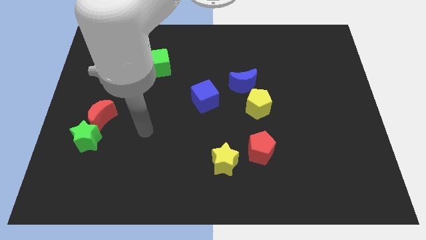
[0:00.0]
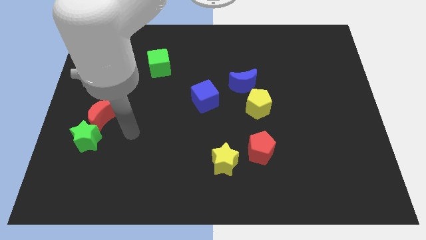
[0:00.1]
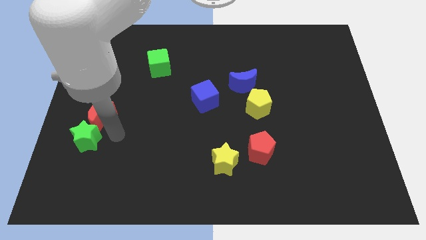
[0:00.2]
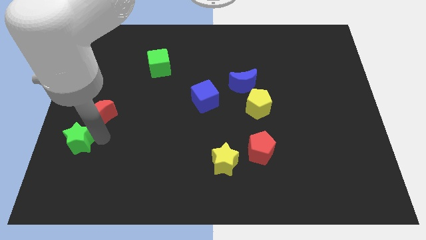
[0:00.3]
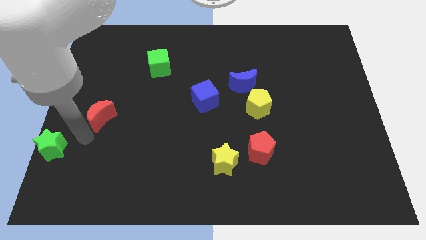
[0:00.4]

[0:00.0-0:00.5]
pull the red moon apart from the green star

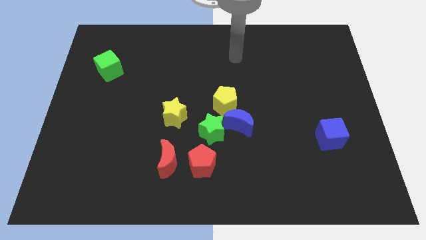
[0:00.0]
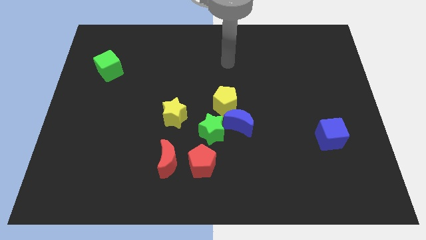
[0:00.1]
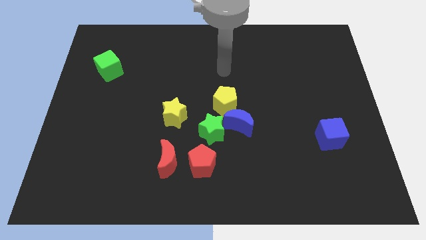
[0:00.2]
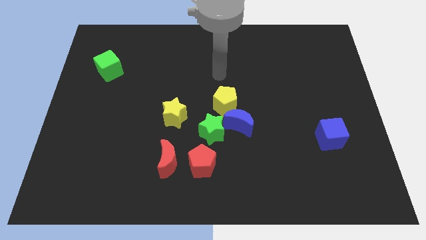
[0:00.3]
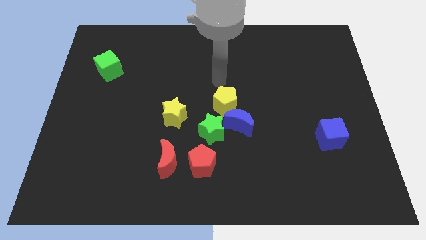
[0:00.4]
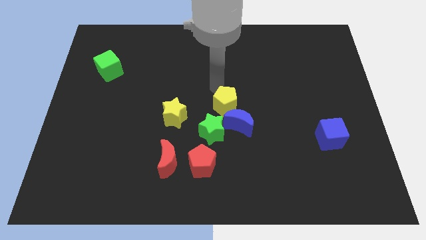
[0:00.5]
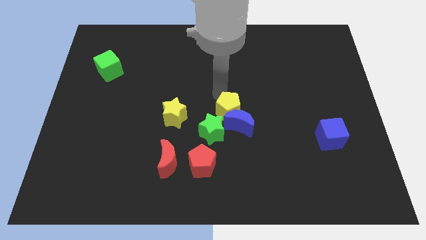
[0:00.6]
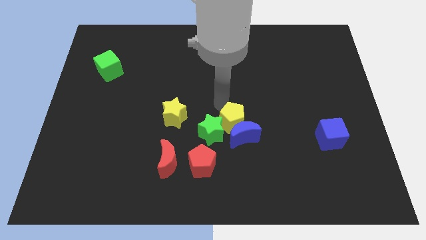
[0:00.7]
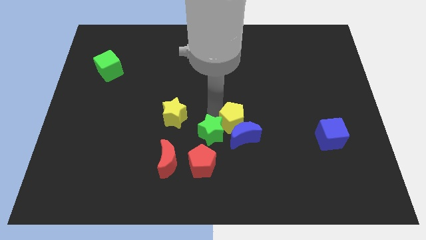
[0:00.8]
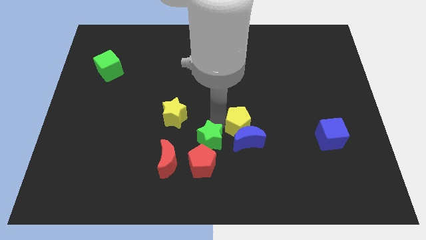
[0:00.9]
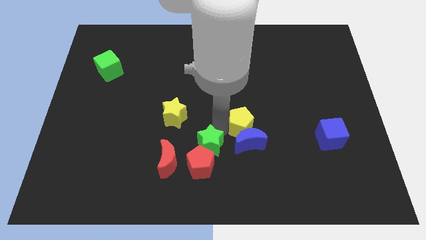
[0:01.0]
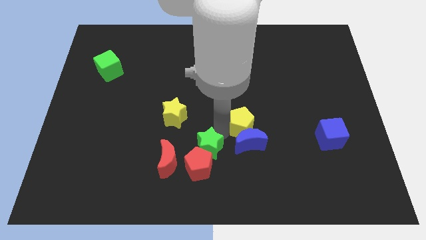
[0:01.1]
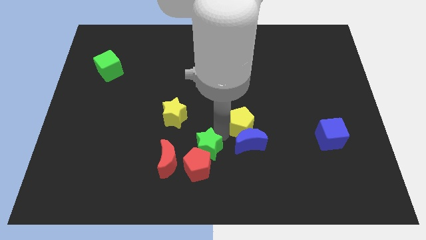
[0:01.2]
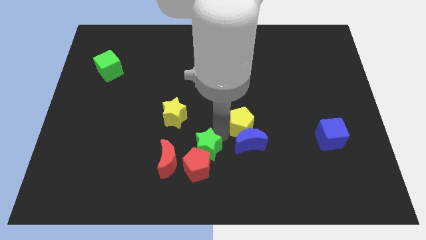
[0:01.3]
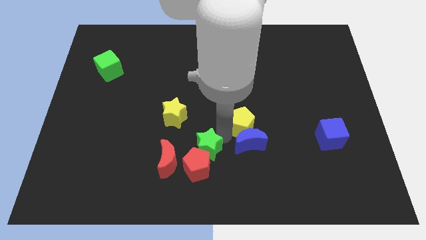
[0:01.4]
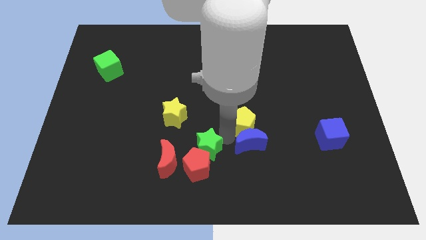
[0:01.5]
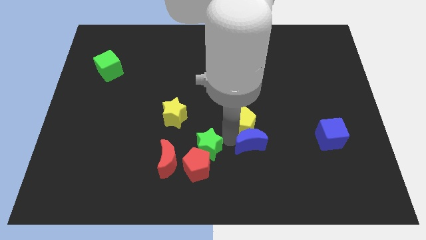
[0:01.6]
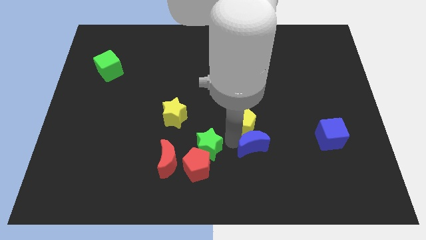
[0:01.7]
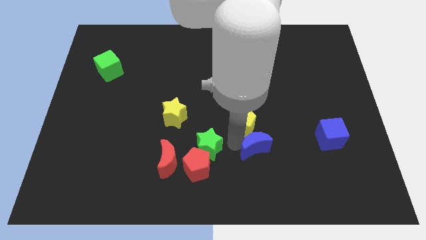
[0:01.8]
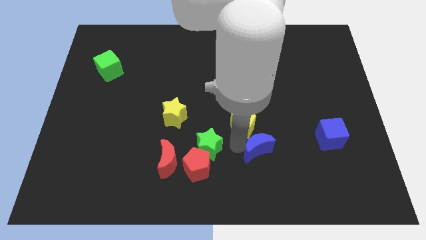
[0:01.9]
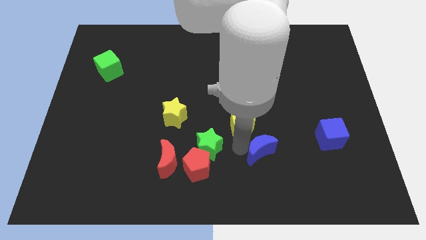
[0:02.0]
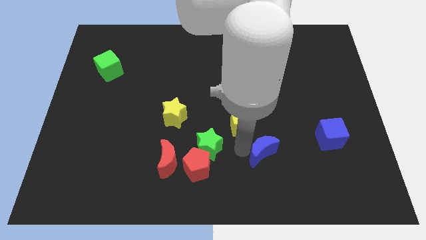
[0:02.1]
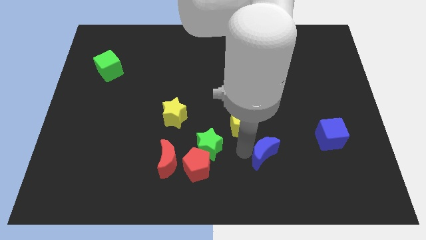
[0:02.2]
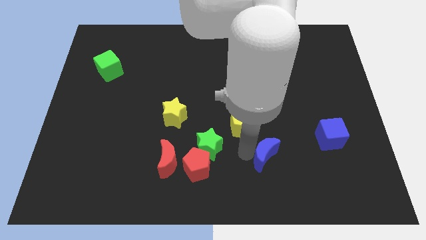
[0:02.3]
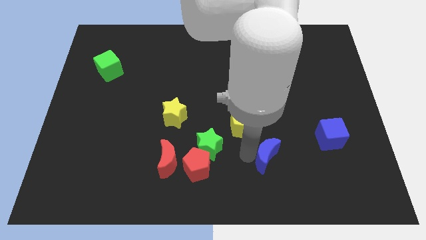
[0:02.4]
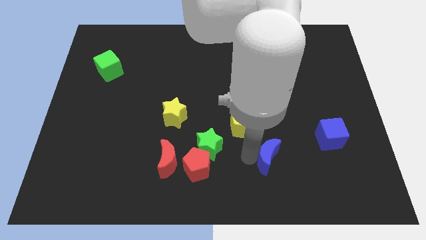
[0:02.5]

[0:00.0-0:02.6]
move the blue moon away from the green star and yellow pentagon

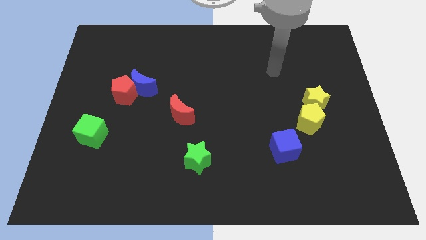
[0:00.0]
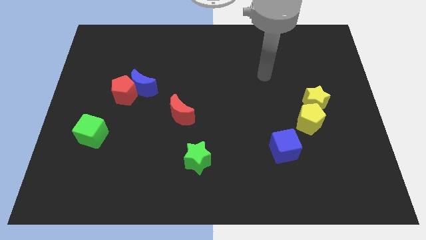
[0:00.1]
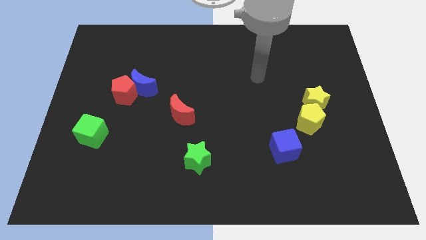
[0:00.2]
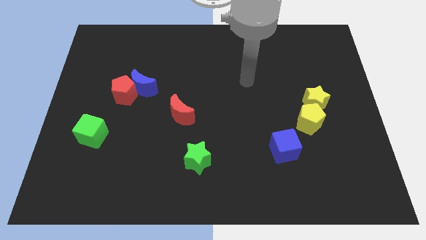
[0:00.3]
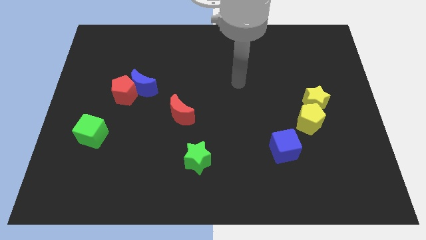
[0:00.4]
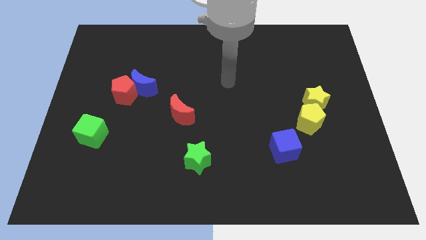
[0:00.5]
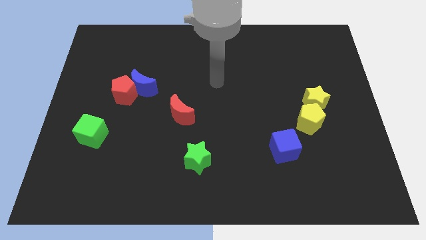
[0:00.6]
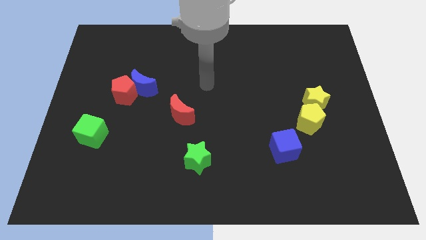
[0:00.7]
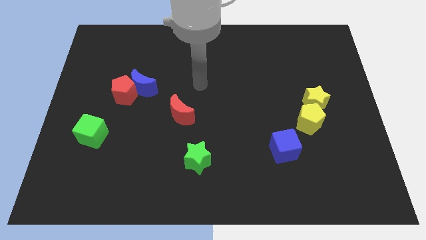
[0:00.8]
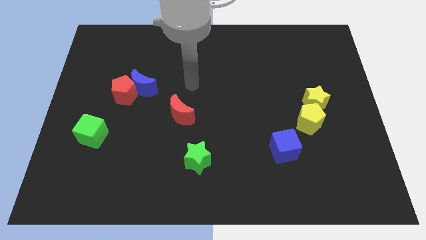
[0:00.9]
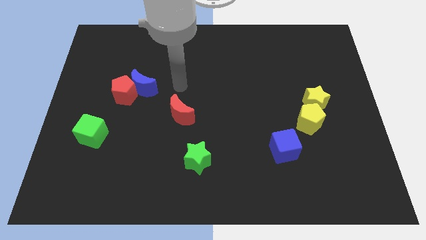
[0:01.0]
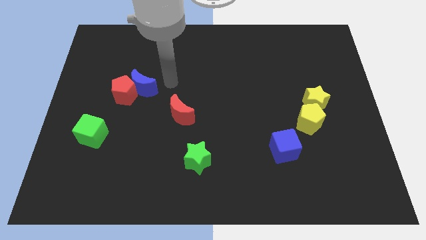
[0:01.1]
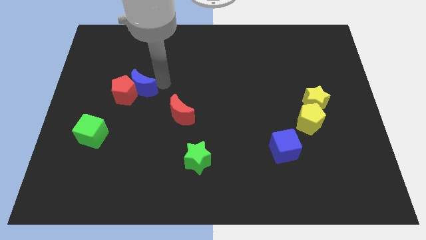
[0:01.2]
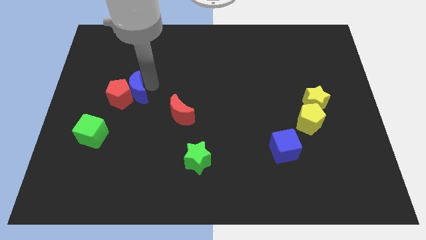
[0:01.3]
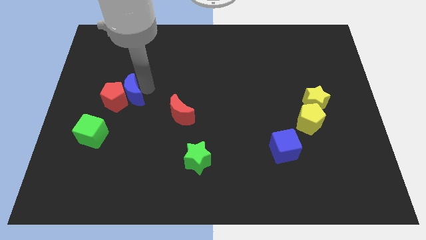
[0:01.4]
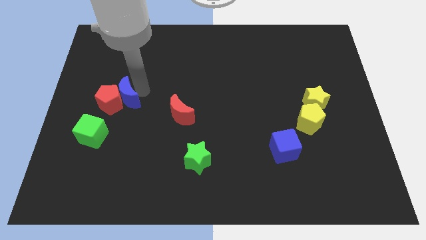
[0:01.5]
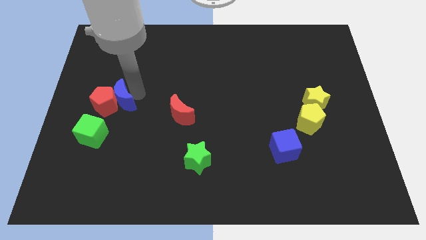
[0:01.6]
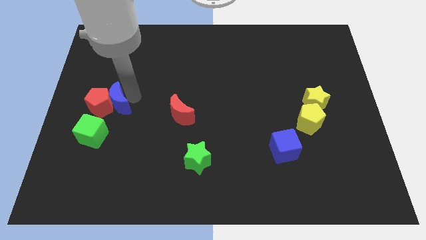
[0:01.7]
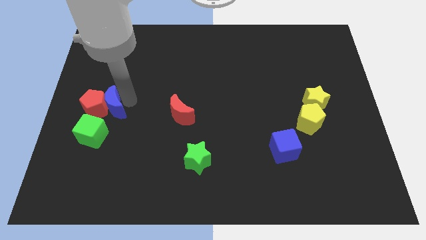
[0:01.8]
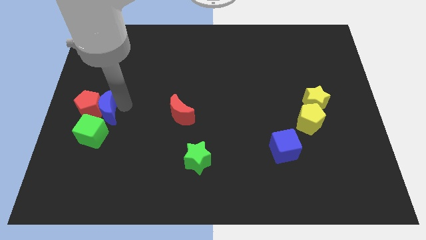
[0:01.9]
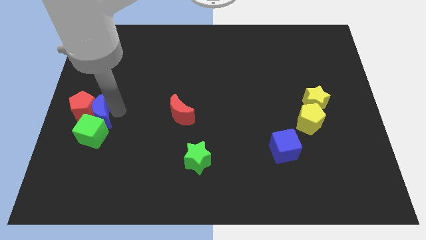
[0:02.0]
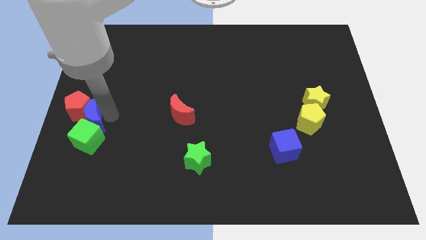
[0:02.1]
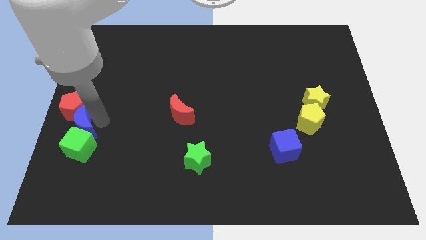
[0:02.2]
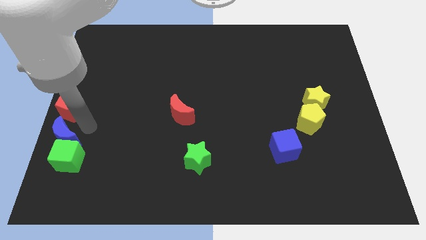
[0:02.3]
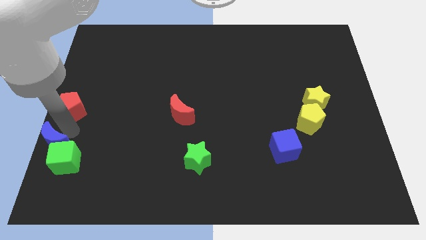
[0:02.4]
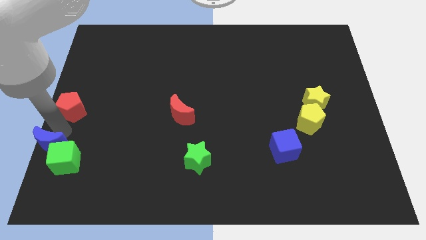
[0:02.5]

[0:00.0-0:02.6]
move the red pentagon away from the blue moon

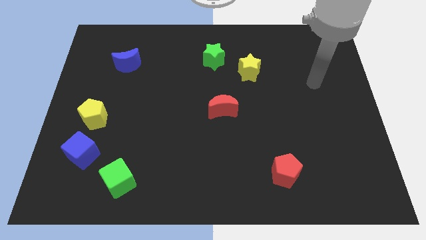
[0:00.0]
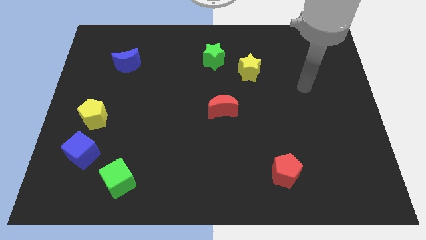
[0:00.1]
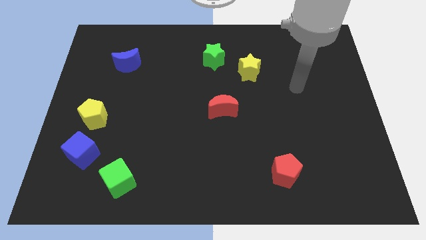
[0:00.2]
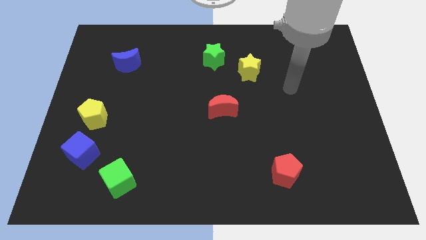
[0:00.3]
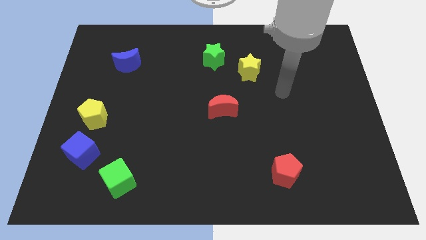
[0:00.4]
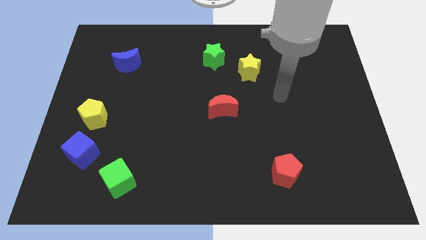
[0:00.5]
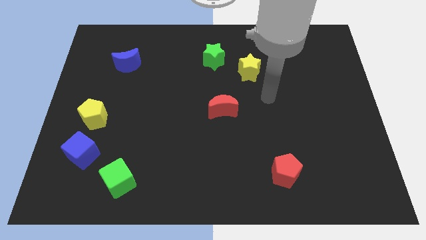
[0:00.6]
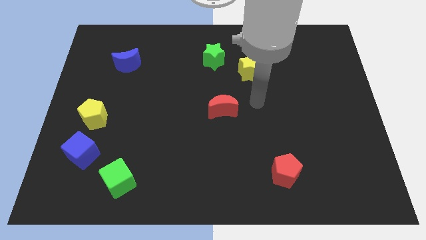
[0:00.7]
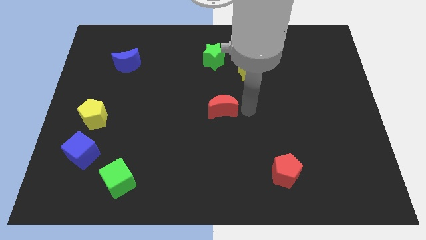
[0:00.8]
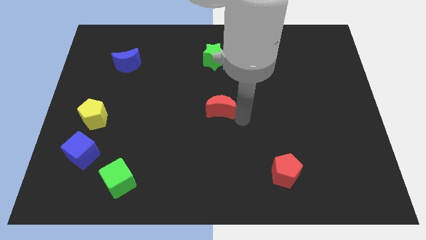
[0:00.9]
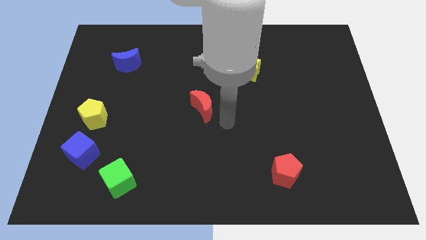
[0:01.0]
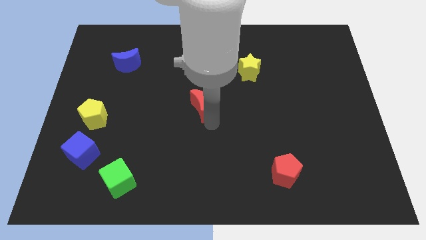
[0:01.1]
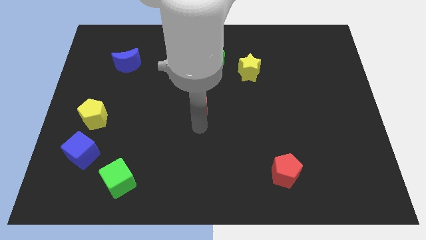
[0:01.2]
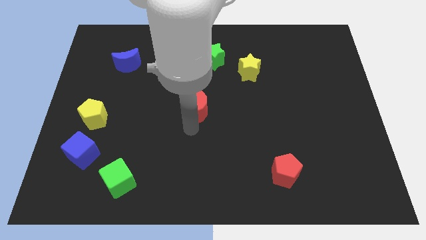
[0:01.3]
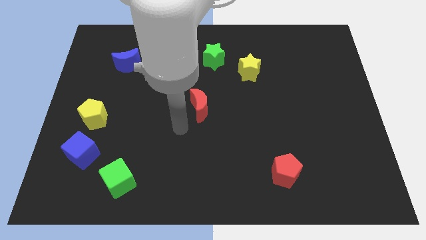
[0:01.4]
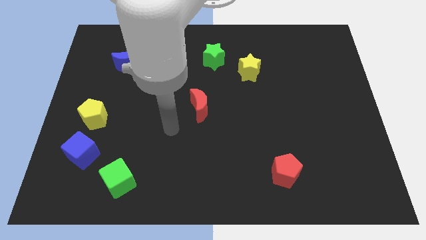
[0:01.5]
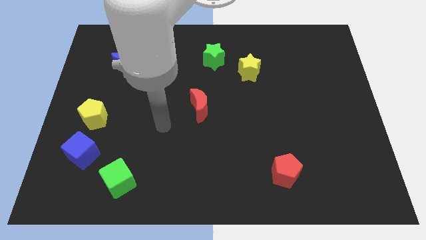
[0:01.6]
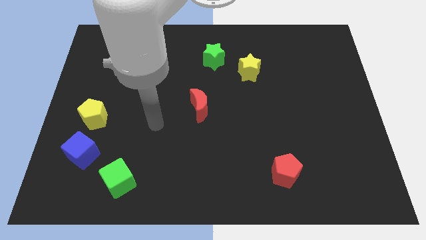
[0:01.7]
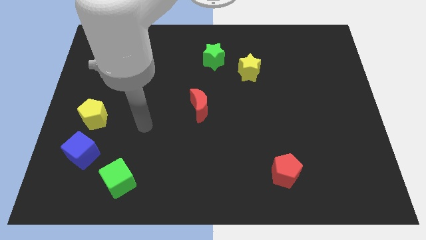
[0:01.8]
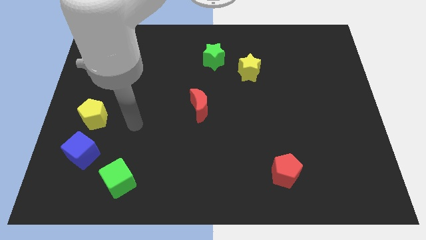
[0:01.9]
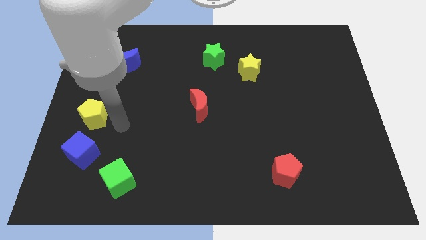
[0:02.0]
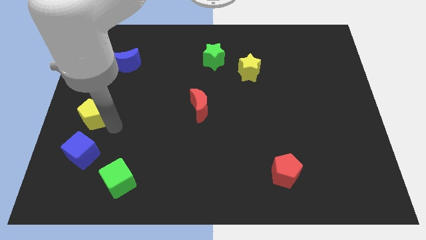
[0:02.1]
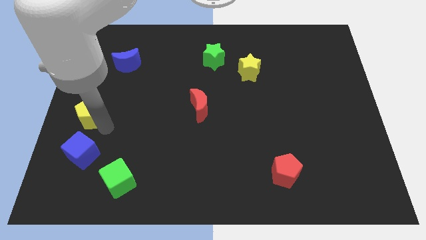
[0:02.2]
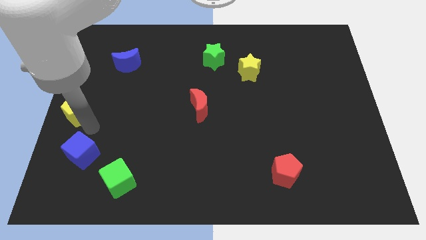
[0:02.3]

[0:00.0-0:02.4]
pull the blue cube apart from the yellow pentagon

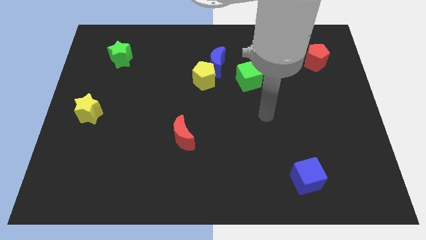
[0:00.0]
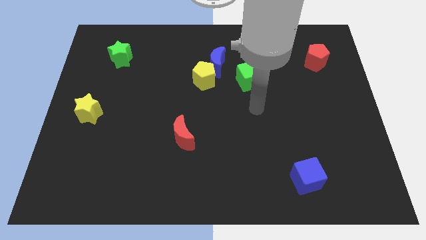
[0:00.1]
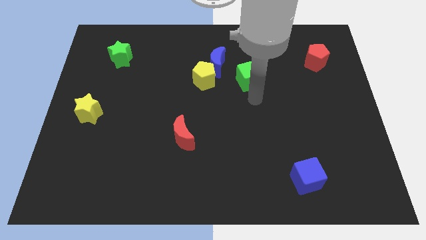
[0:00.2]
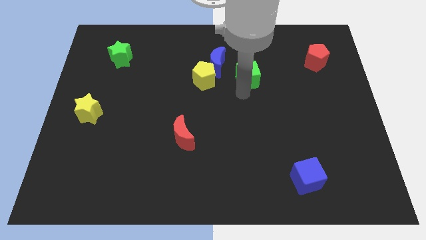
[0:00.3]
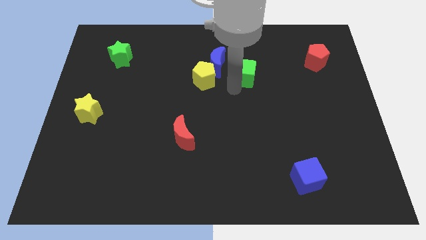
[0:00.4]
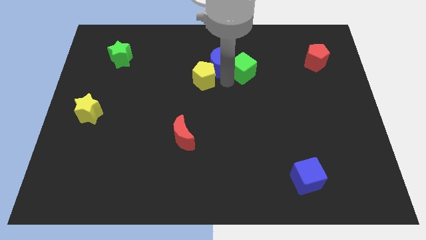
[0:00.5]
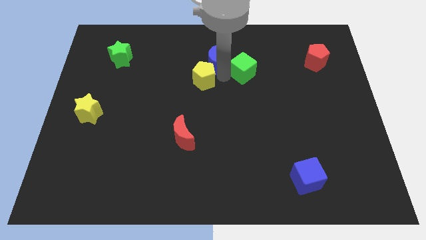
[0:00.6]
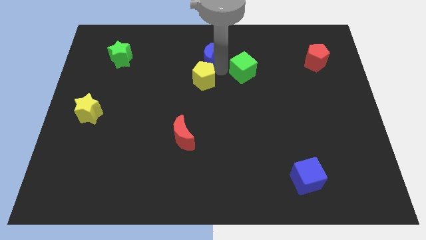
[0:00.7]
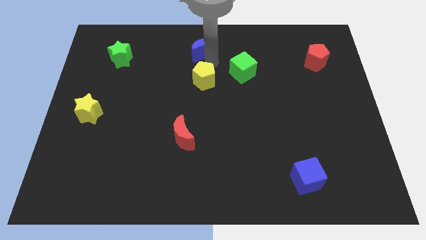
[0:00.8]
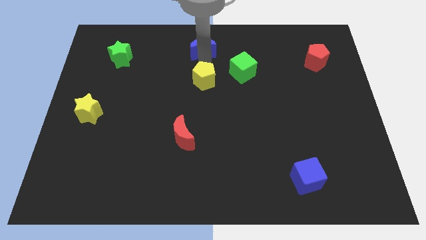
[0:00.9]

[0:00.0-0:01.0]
separate the yellow pentagon from the blue moon
